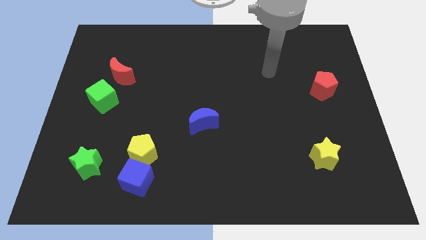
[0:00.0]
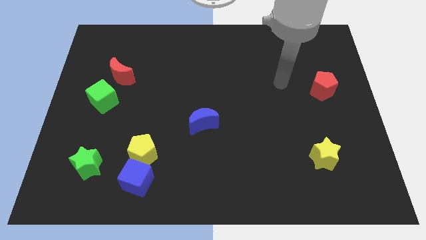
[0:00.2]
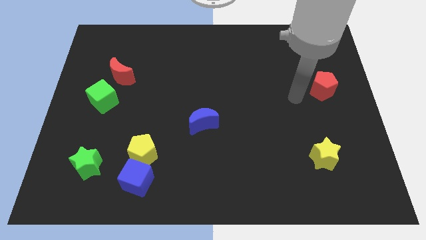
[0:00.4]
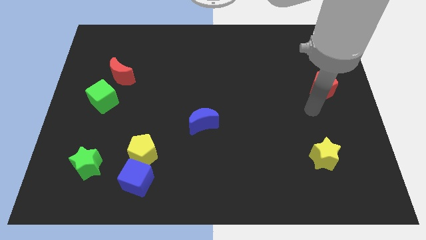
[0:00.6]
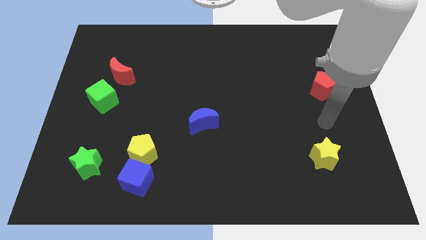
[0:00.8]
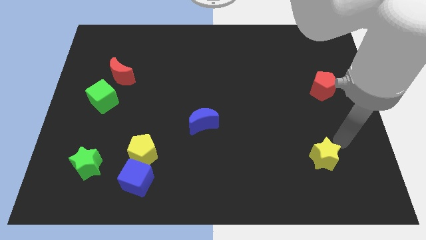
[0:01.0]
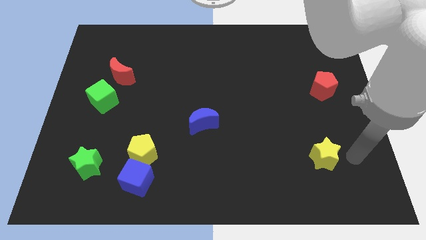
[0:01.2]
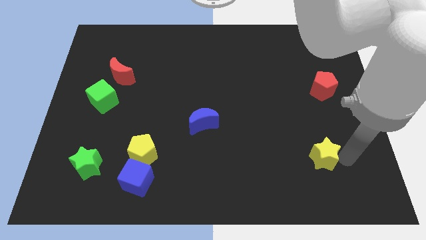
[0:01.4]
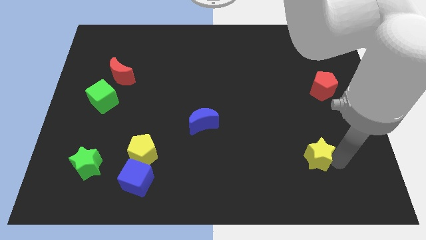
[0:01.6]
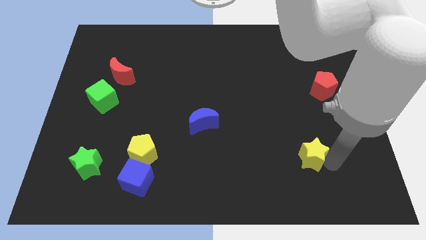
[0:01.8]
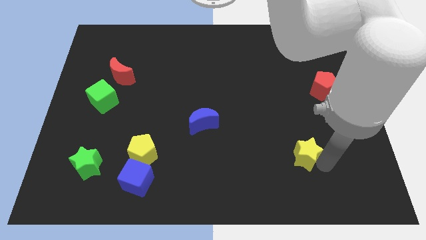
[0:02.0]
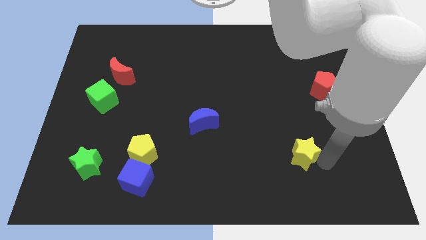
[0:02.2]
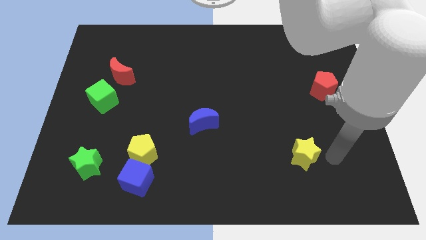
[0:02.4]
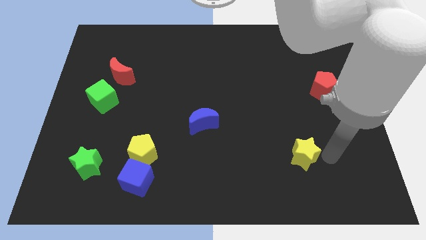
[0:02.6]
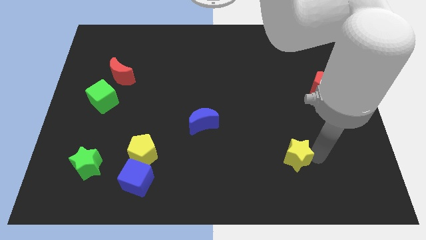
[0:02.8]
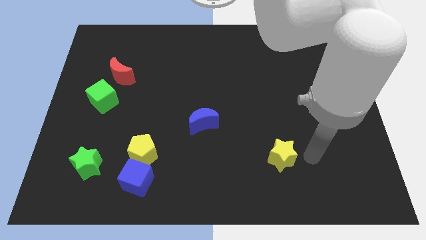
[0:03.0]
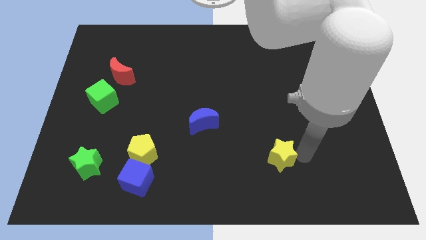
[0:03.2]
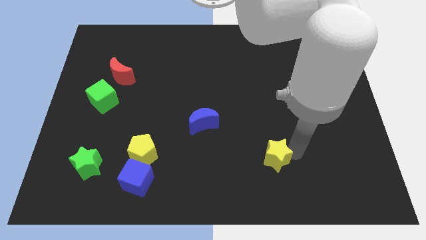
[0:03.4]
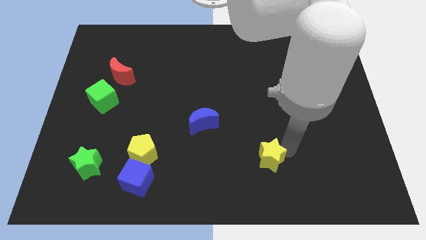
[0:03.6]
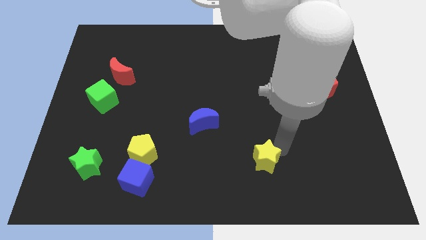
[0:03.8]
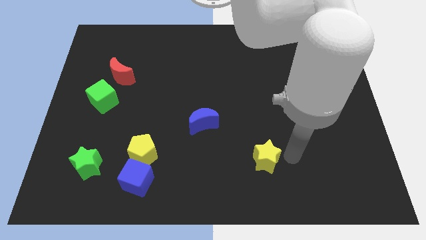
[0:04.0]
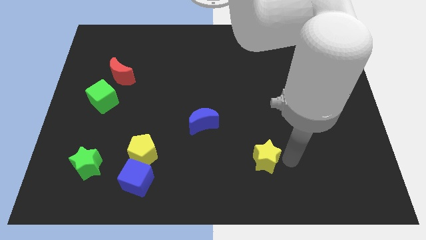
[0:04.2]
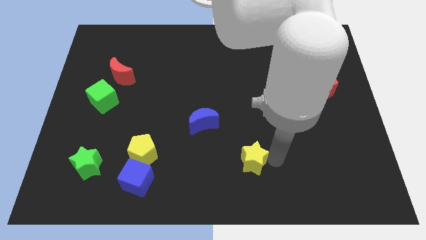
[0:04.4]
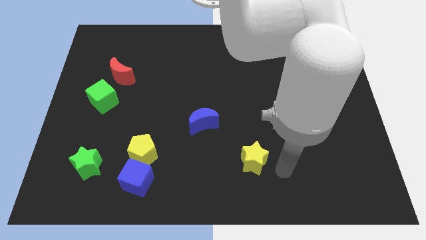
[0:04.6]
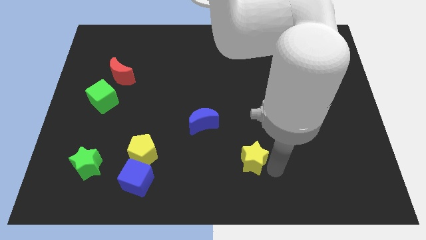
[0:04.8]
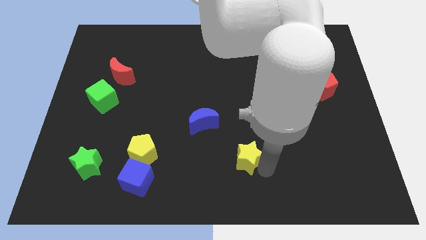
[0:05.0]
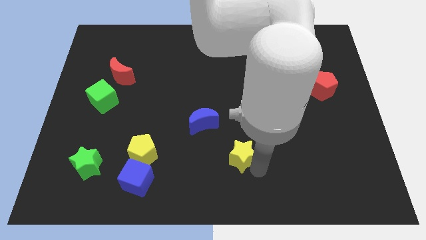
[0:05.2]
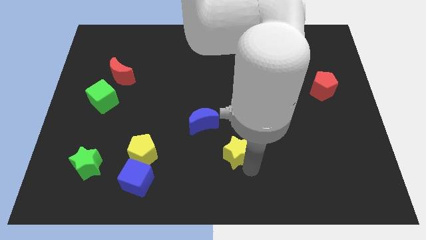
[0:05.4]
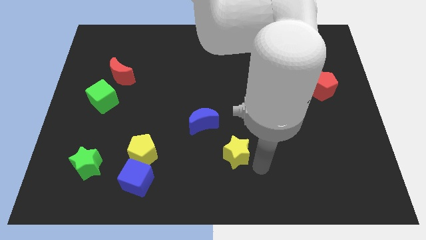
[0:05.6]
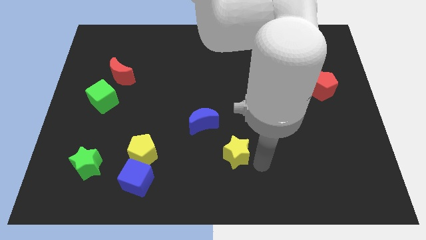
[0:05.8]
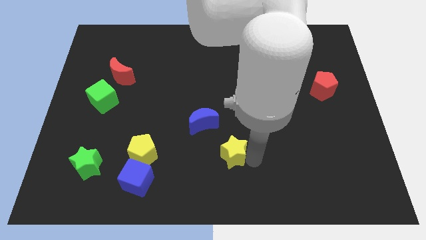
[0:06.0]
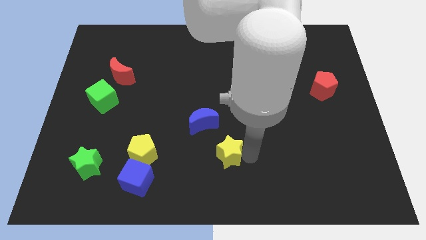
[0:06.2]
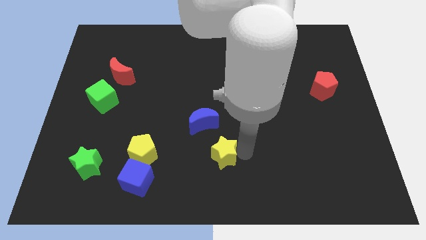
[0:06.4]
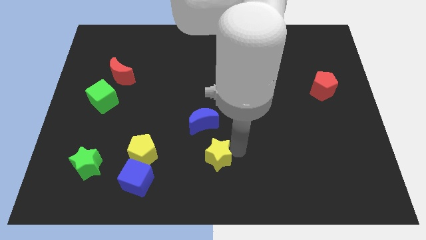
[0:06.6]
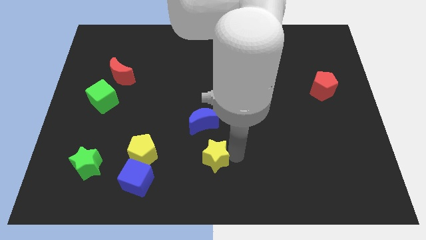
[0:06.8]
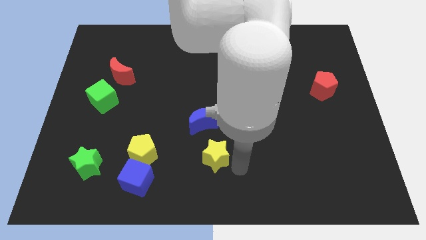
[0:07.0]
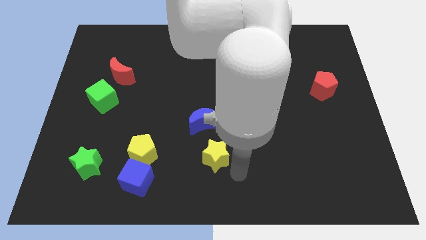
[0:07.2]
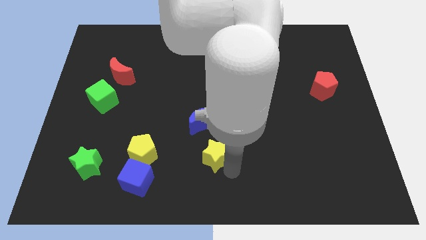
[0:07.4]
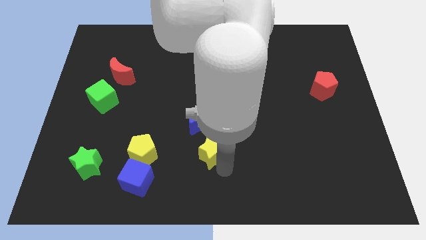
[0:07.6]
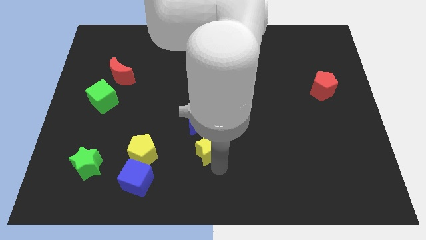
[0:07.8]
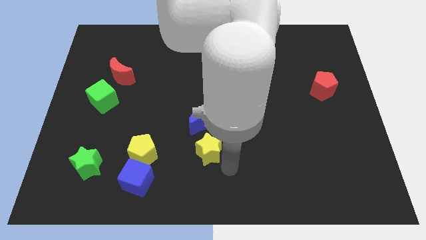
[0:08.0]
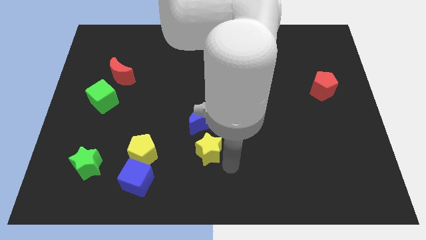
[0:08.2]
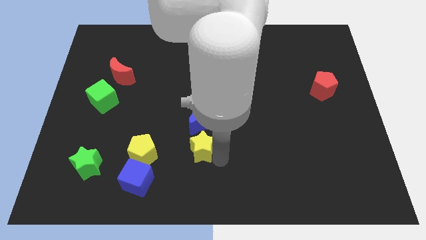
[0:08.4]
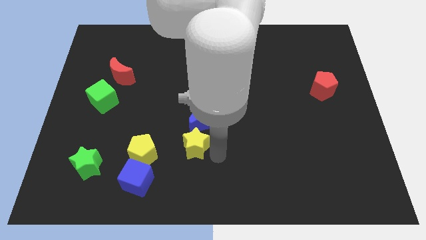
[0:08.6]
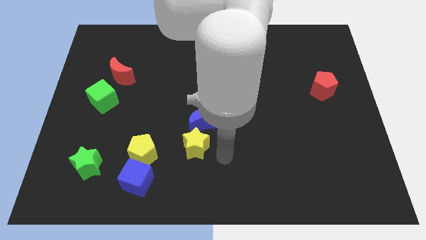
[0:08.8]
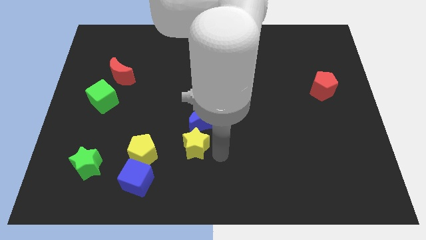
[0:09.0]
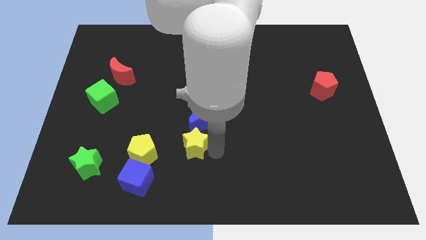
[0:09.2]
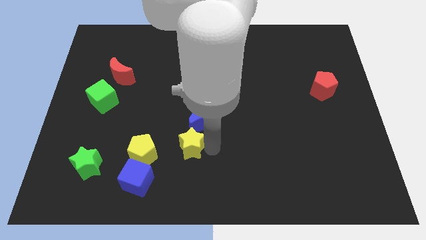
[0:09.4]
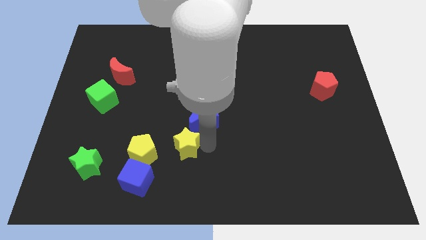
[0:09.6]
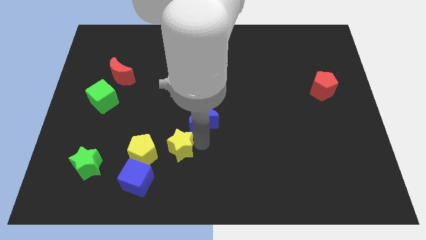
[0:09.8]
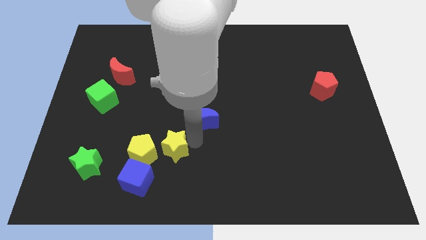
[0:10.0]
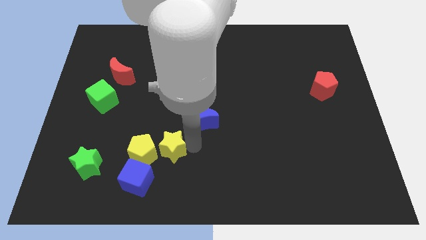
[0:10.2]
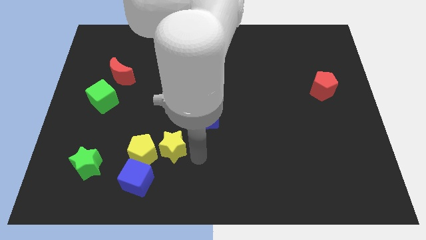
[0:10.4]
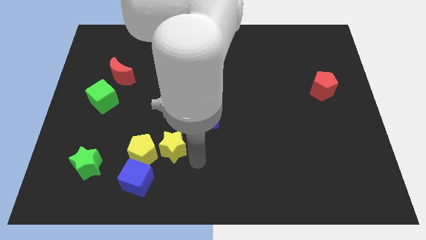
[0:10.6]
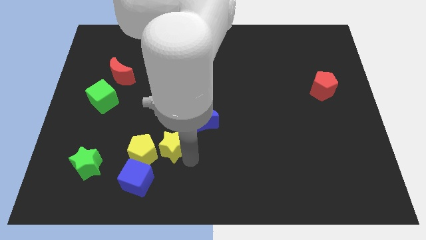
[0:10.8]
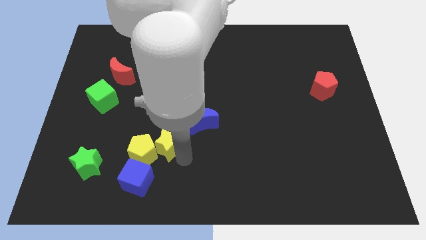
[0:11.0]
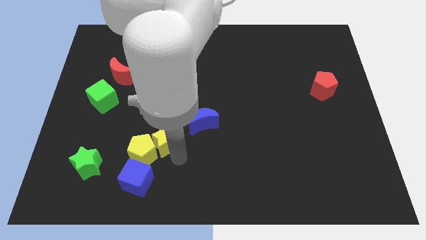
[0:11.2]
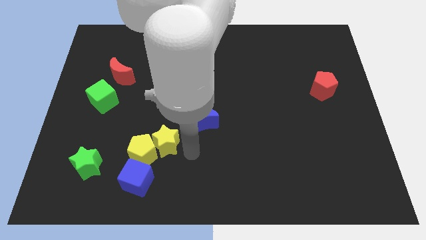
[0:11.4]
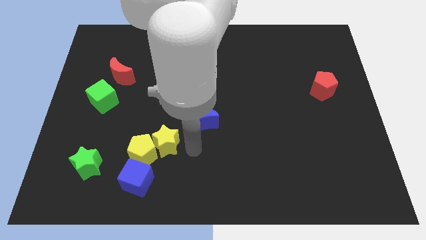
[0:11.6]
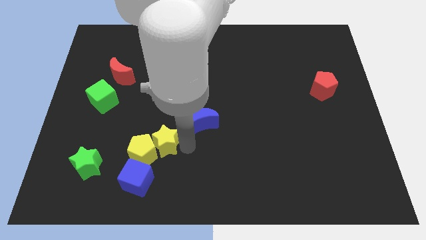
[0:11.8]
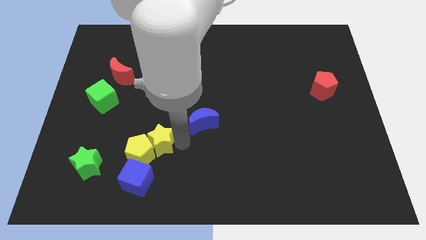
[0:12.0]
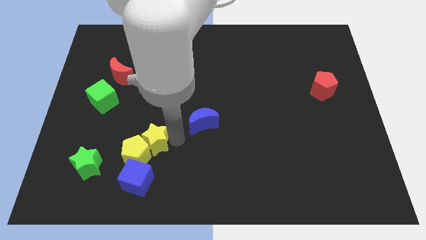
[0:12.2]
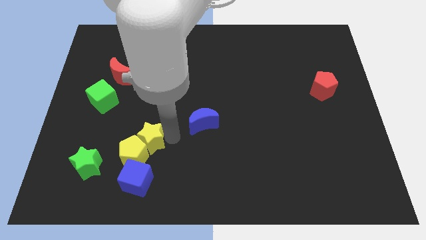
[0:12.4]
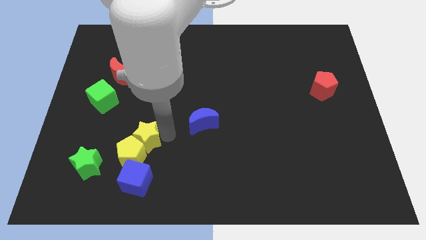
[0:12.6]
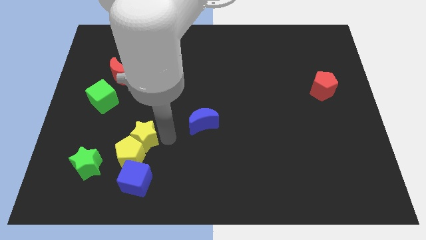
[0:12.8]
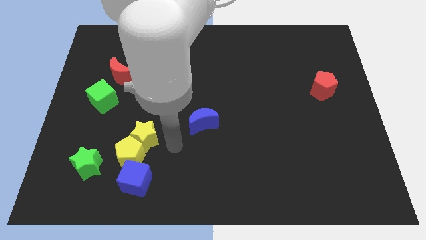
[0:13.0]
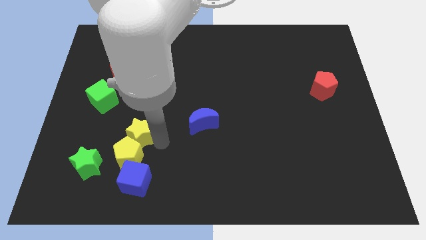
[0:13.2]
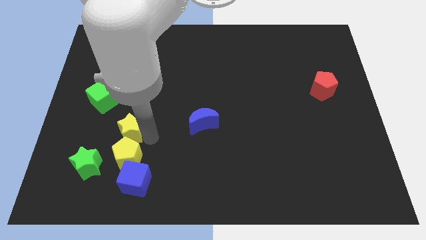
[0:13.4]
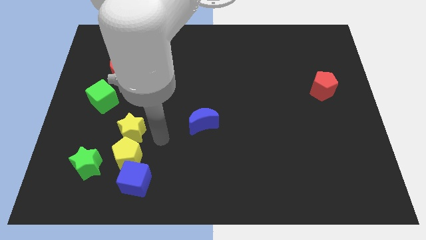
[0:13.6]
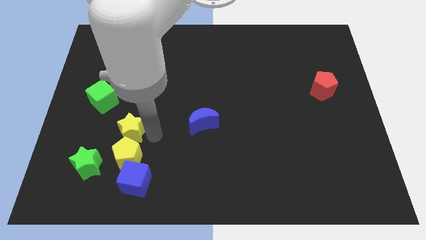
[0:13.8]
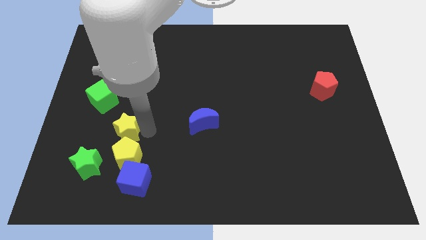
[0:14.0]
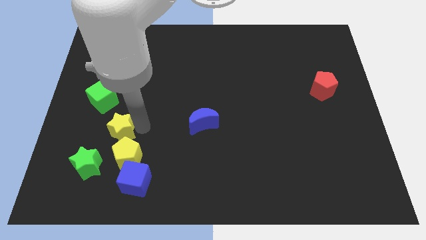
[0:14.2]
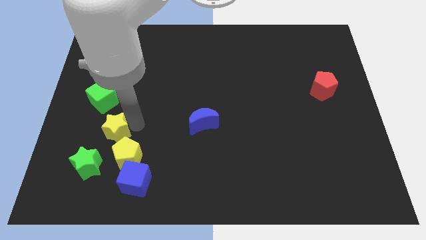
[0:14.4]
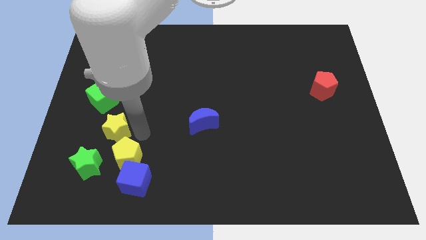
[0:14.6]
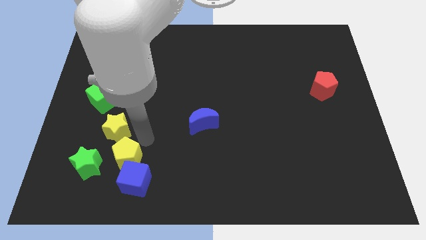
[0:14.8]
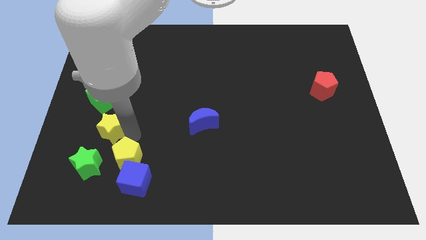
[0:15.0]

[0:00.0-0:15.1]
push the yellow star to the top of the green star

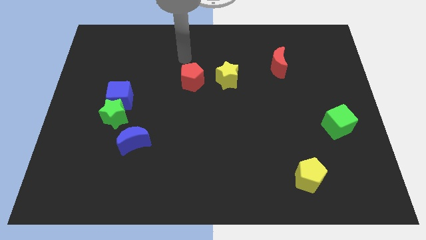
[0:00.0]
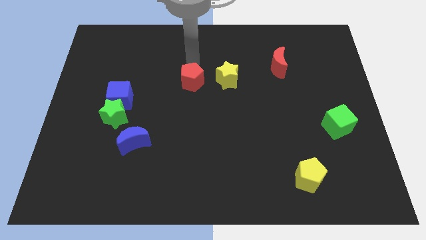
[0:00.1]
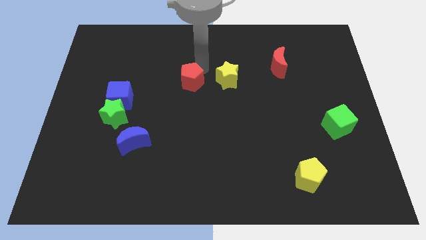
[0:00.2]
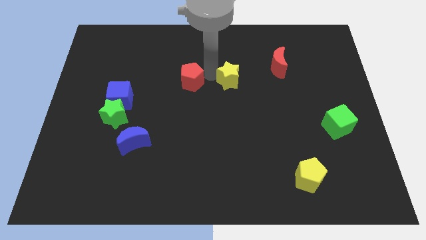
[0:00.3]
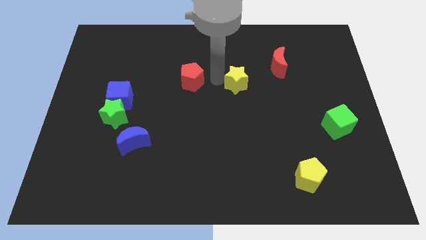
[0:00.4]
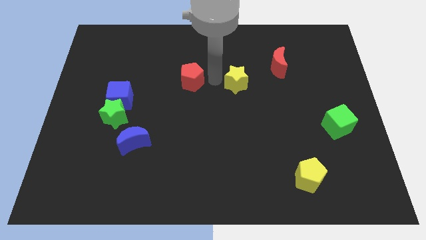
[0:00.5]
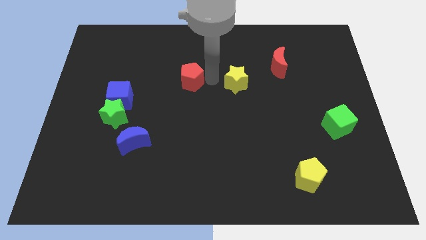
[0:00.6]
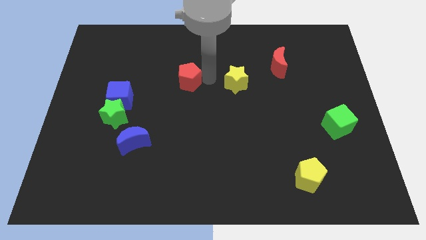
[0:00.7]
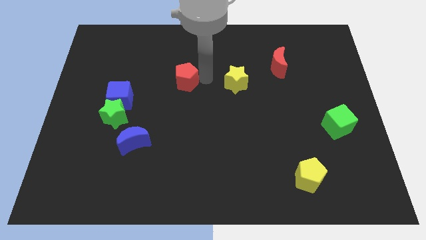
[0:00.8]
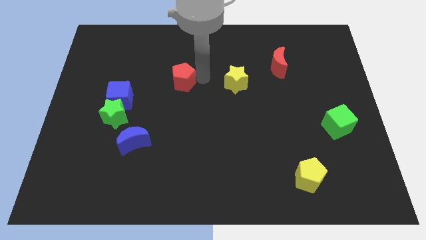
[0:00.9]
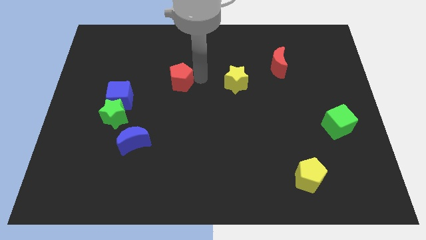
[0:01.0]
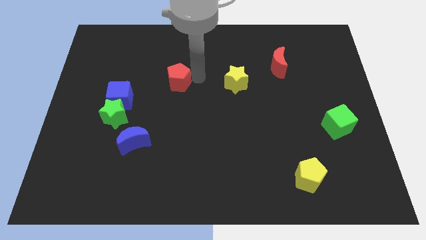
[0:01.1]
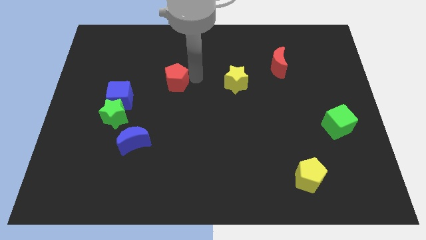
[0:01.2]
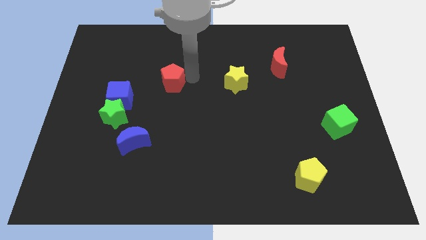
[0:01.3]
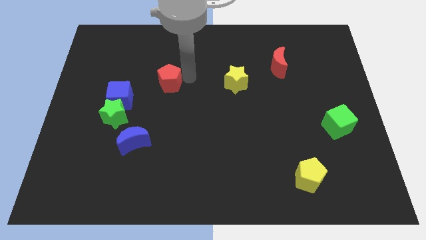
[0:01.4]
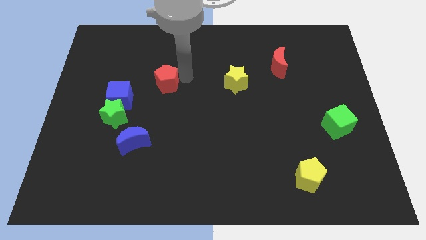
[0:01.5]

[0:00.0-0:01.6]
push the red pentagon to the top right side of the blue cube
